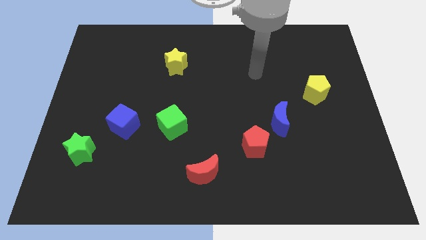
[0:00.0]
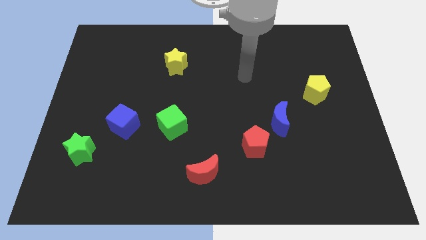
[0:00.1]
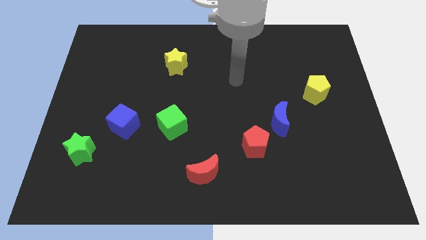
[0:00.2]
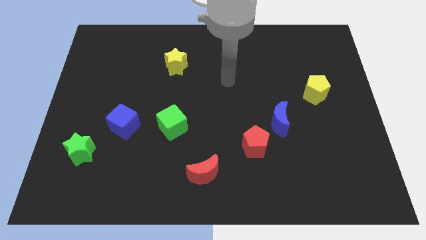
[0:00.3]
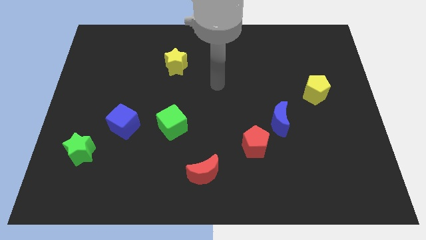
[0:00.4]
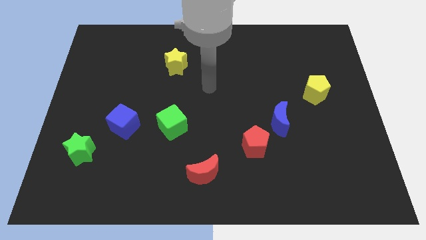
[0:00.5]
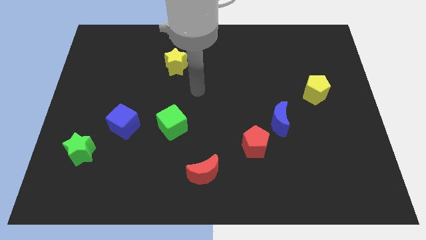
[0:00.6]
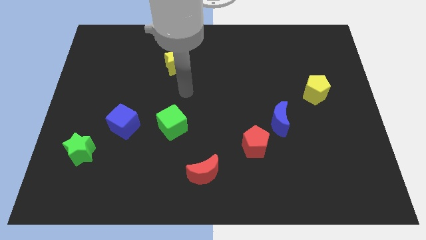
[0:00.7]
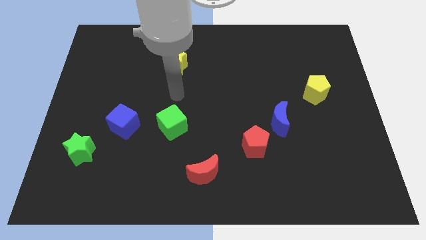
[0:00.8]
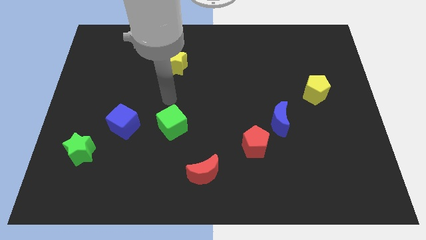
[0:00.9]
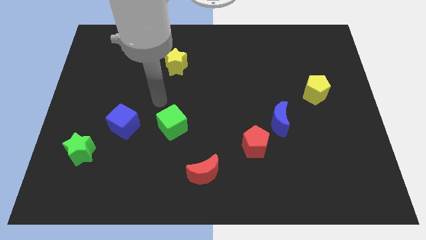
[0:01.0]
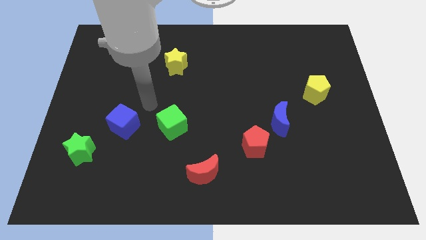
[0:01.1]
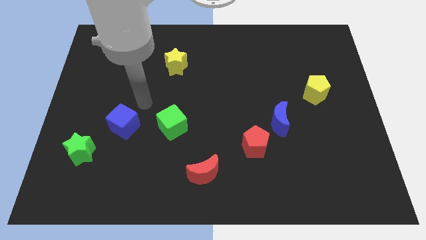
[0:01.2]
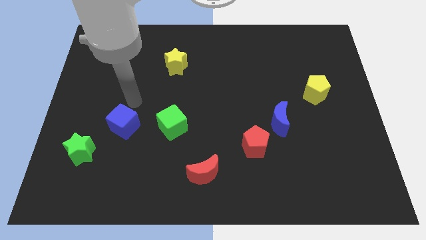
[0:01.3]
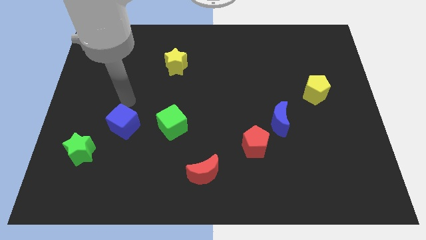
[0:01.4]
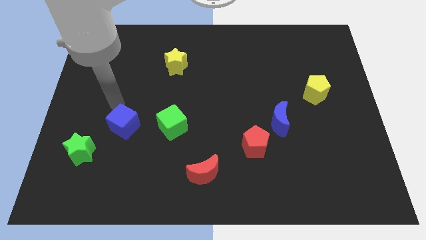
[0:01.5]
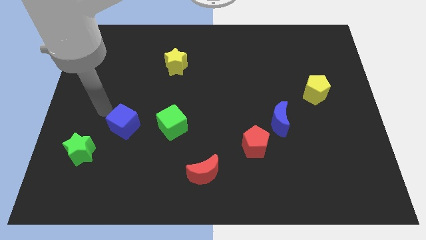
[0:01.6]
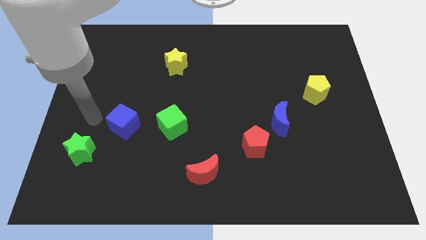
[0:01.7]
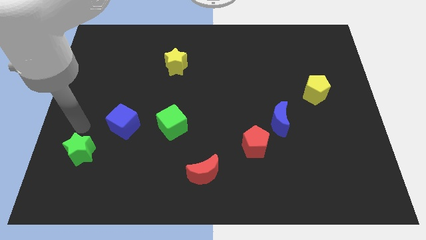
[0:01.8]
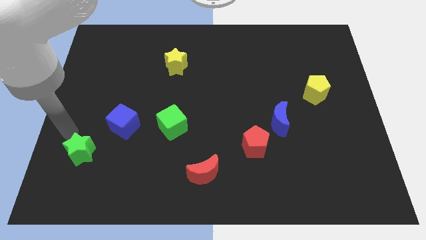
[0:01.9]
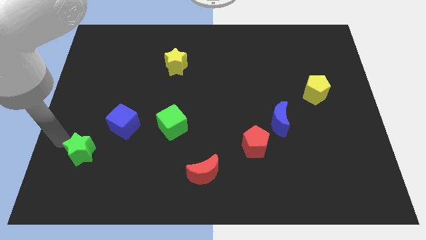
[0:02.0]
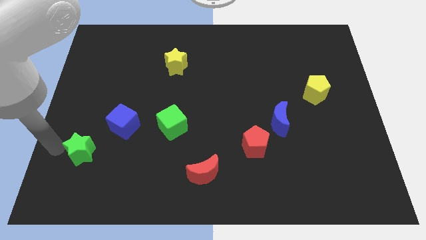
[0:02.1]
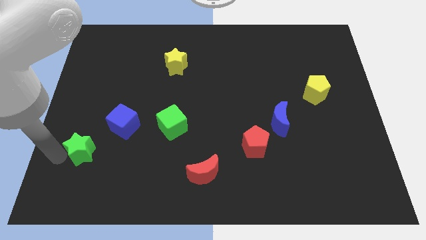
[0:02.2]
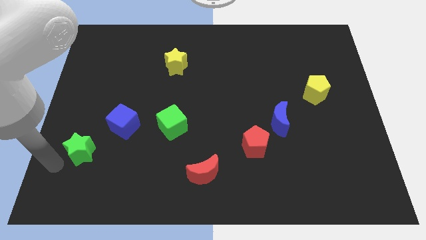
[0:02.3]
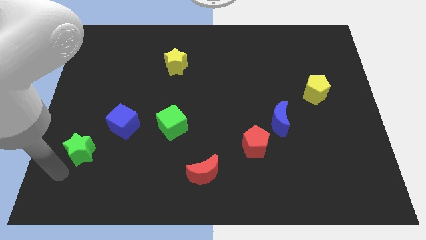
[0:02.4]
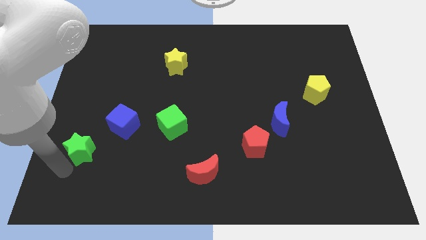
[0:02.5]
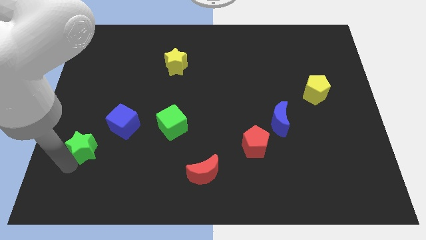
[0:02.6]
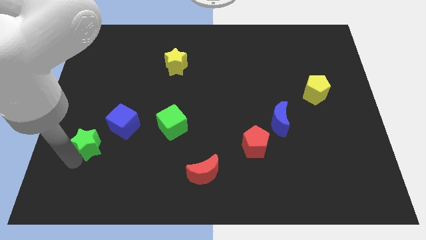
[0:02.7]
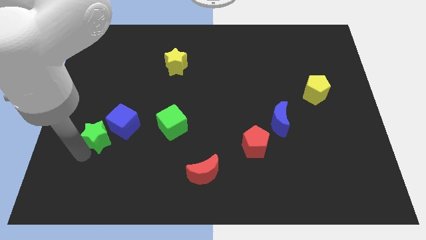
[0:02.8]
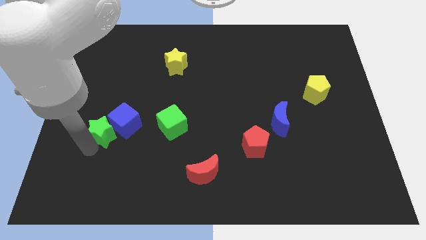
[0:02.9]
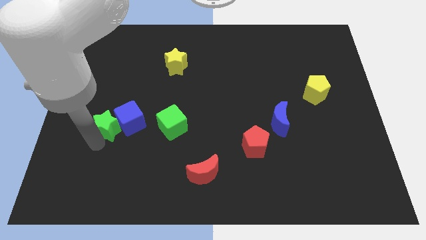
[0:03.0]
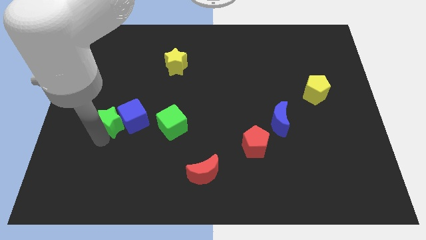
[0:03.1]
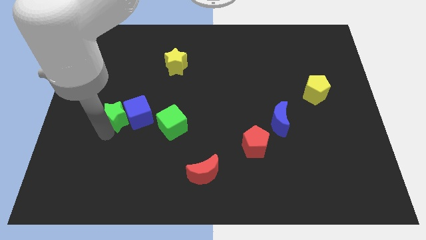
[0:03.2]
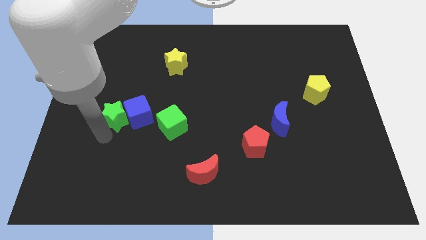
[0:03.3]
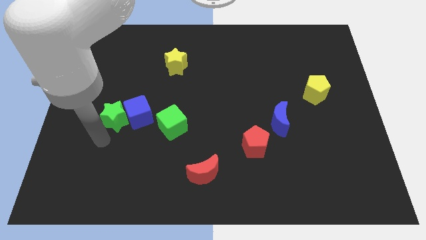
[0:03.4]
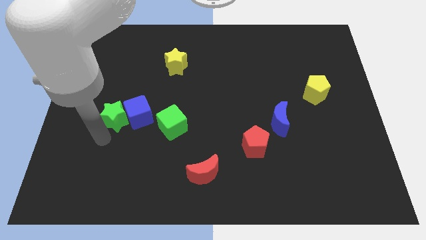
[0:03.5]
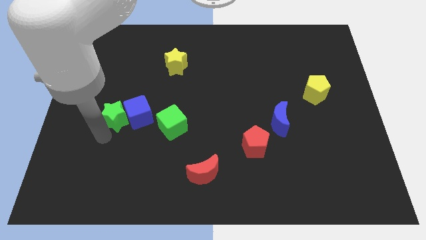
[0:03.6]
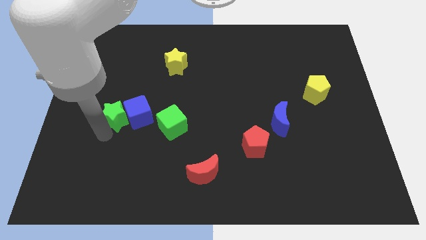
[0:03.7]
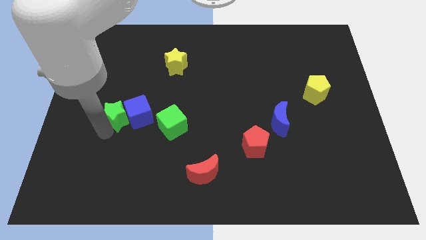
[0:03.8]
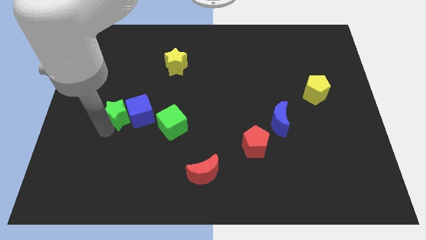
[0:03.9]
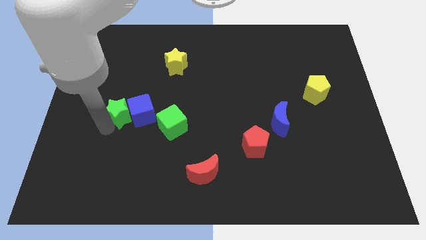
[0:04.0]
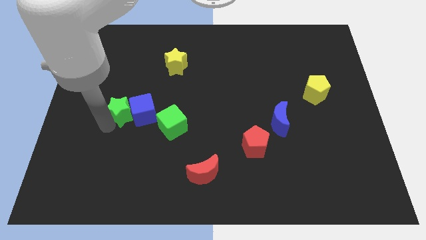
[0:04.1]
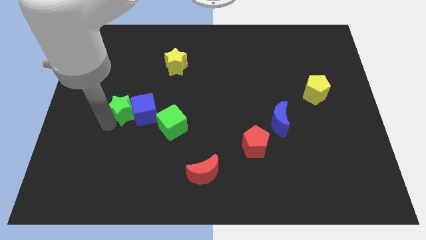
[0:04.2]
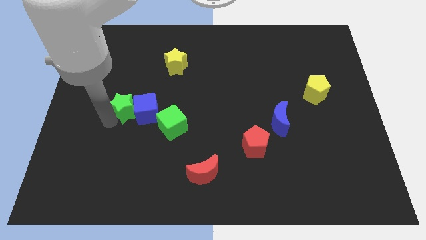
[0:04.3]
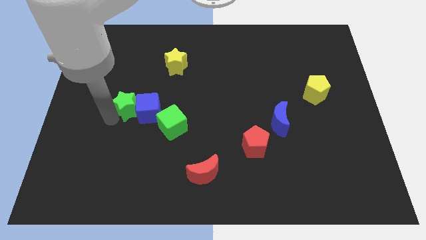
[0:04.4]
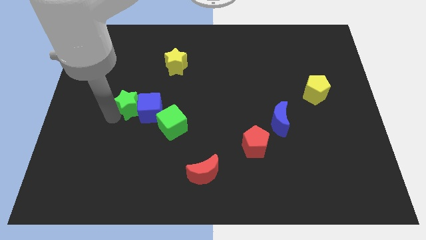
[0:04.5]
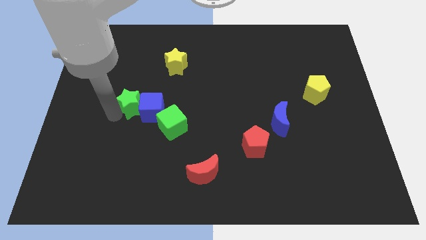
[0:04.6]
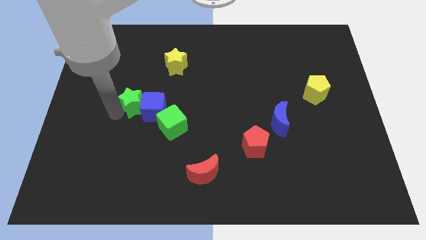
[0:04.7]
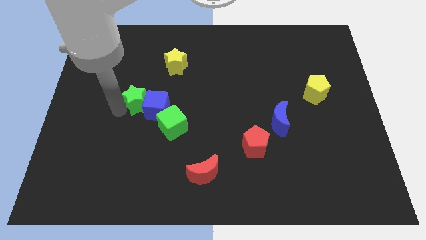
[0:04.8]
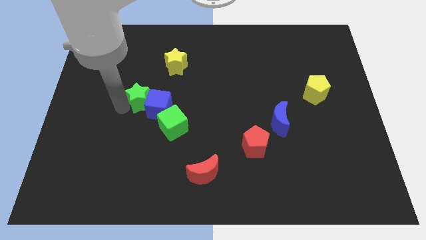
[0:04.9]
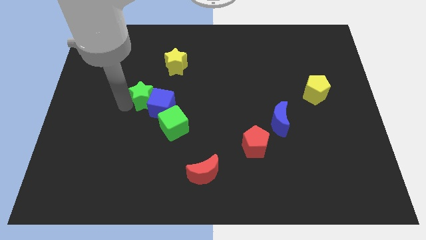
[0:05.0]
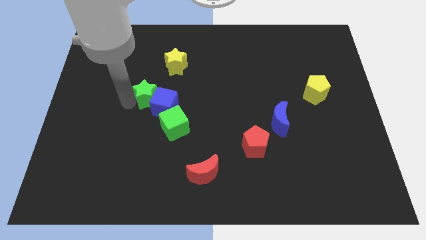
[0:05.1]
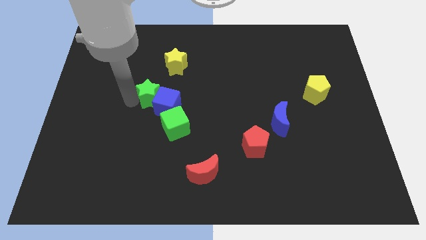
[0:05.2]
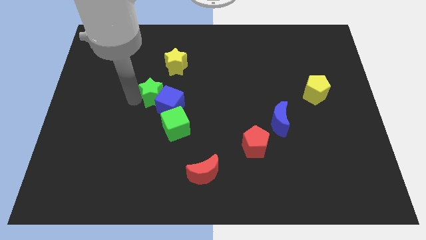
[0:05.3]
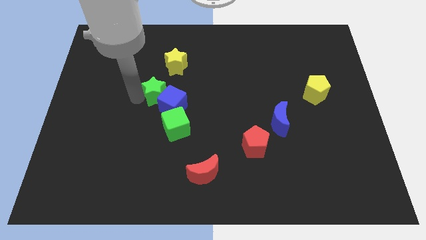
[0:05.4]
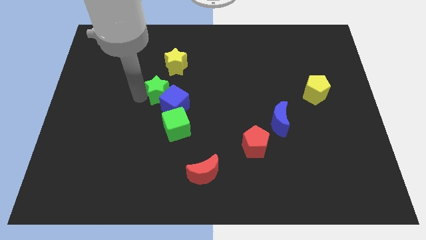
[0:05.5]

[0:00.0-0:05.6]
slide the green star to the top of the green cube

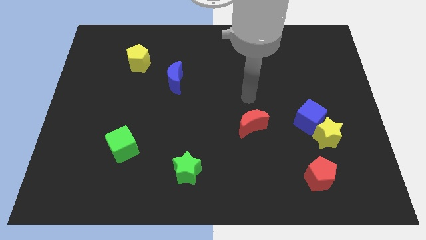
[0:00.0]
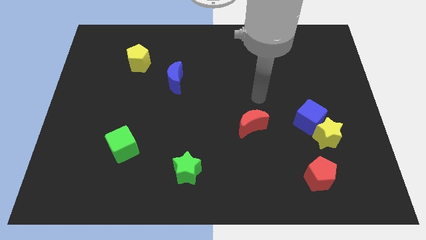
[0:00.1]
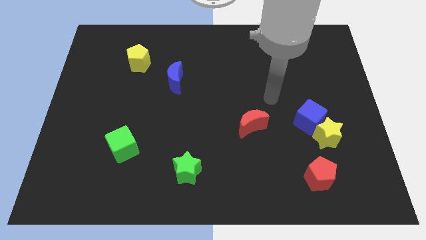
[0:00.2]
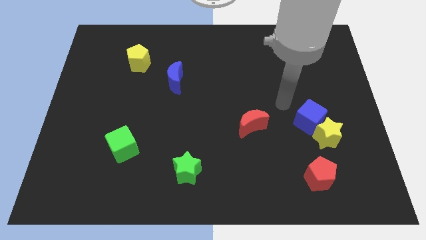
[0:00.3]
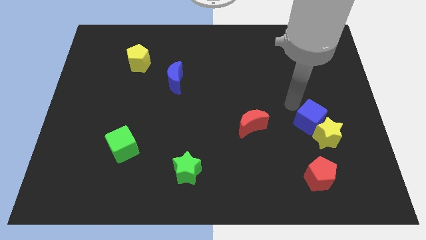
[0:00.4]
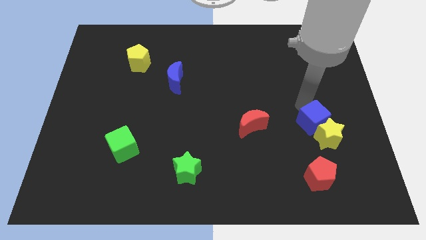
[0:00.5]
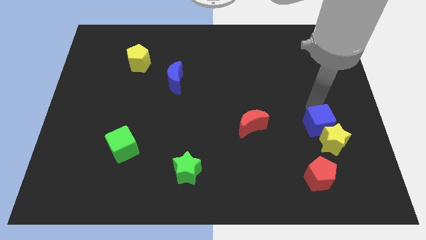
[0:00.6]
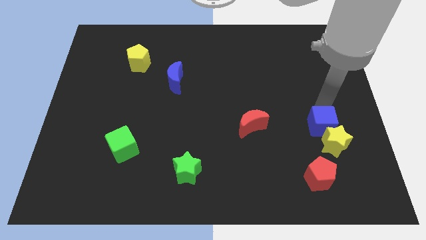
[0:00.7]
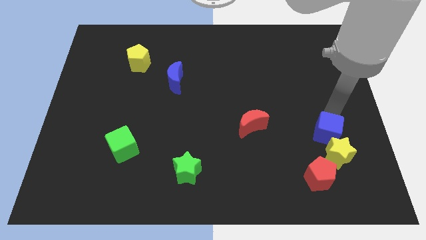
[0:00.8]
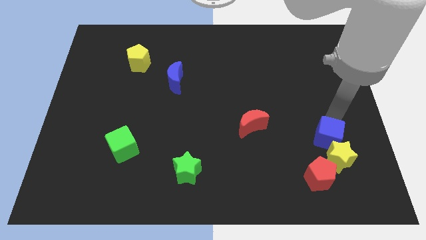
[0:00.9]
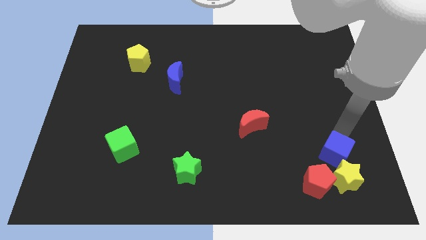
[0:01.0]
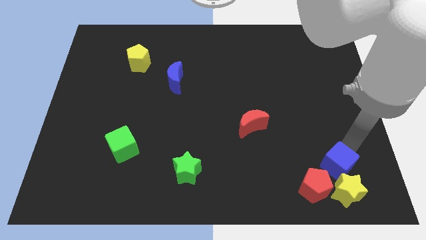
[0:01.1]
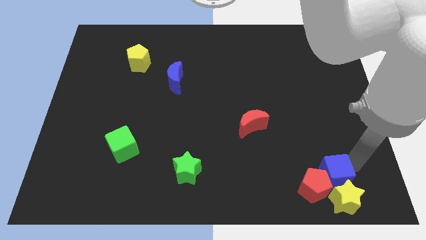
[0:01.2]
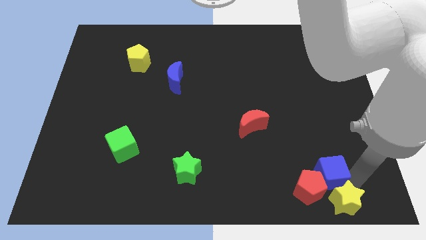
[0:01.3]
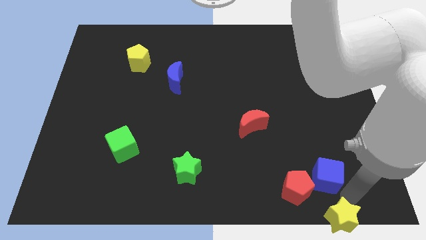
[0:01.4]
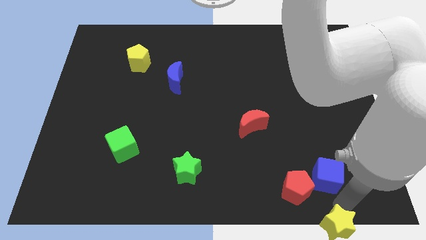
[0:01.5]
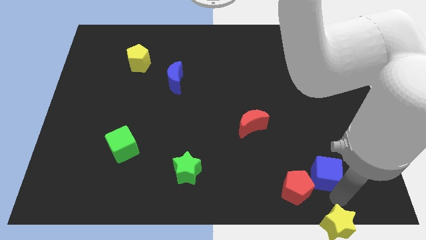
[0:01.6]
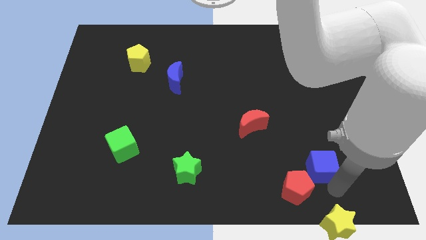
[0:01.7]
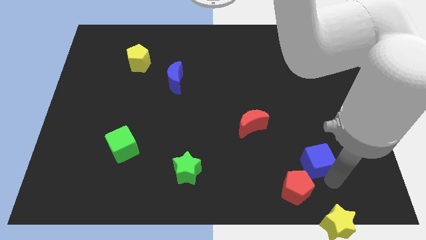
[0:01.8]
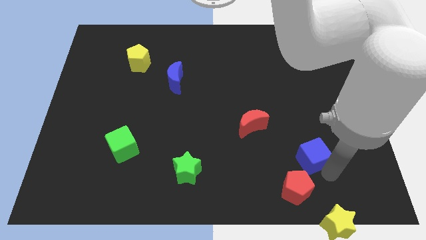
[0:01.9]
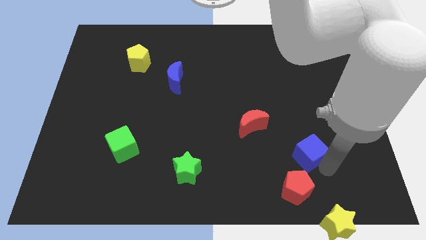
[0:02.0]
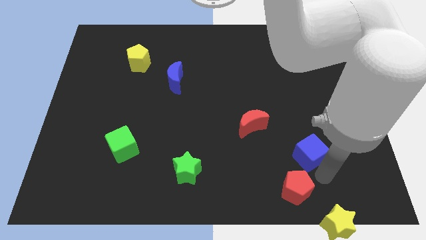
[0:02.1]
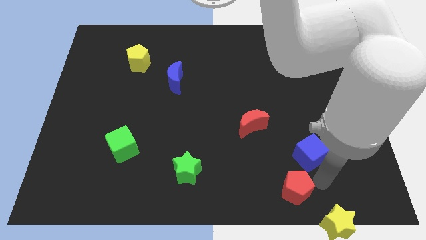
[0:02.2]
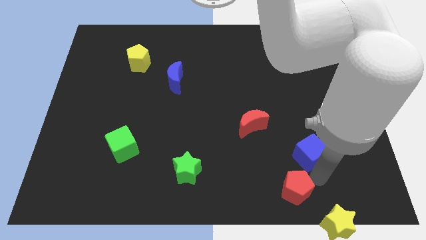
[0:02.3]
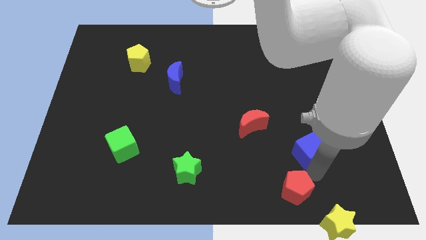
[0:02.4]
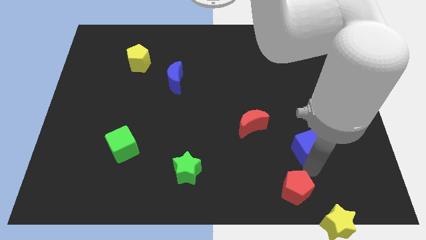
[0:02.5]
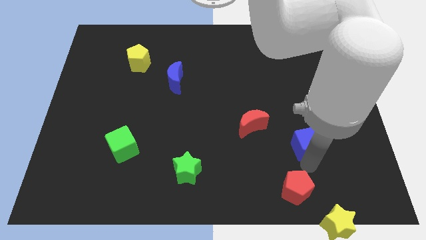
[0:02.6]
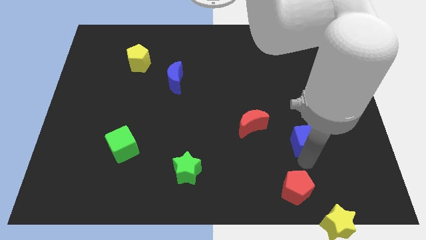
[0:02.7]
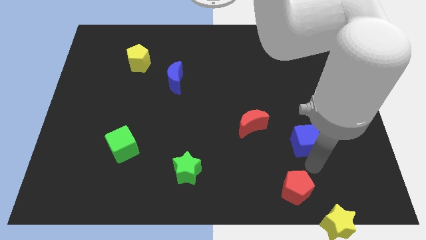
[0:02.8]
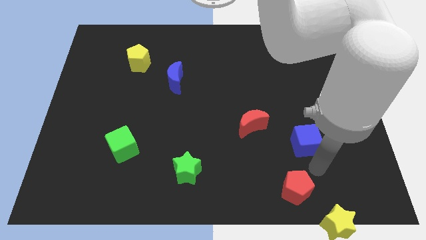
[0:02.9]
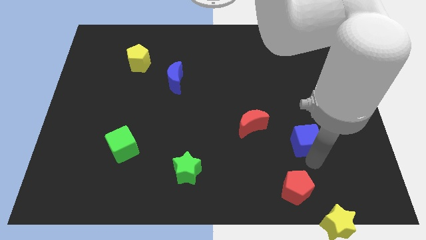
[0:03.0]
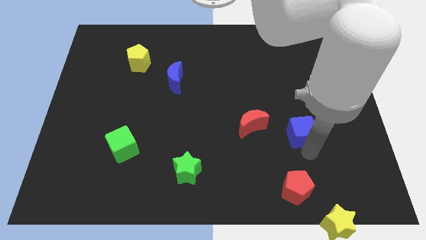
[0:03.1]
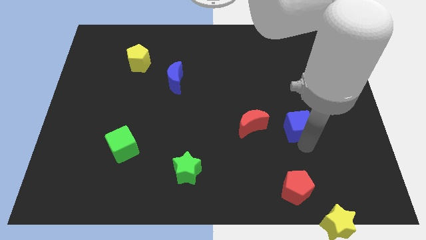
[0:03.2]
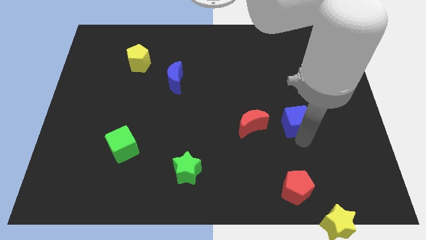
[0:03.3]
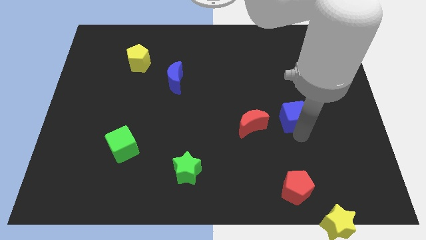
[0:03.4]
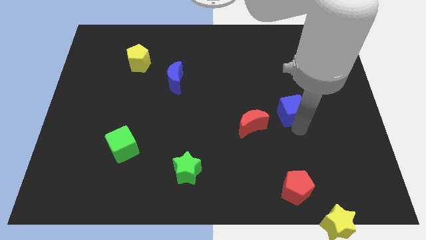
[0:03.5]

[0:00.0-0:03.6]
move the blue cube to the top right side of the red moon
